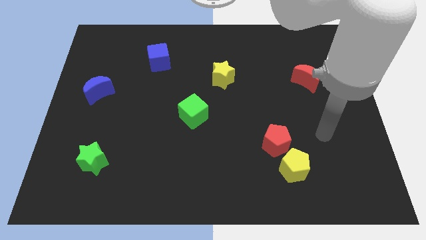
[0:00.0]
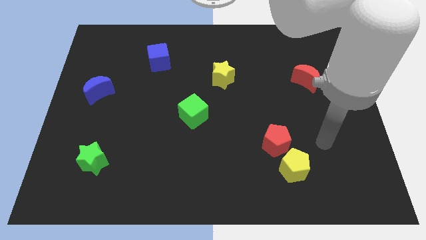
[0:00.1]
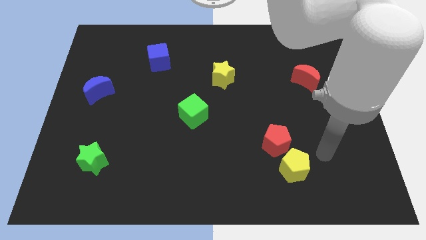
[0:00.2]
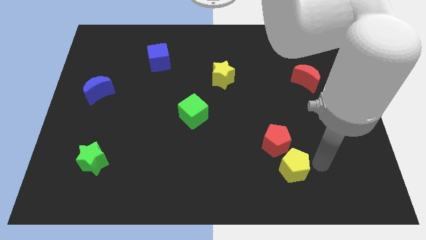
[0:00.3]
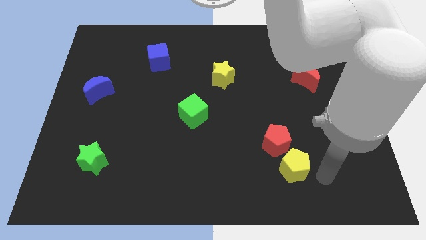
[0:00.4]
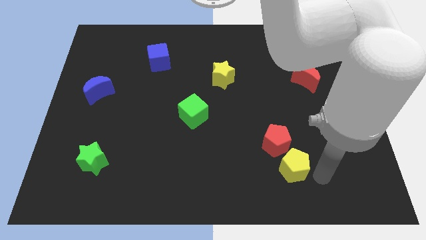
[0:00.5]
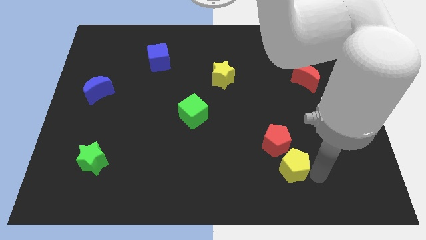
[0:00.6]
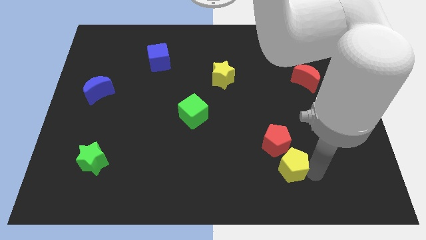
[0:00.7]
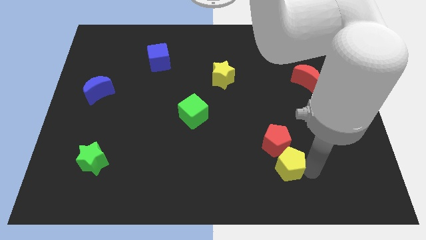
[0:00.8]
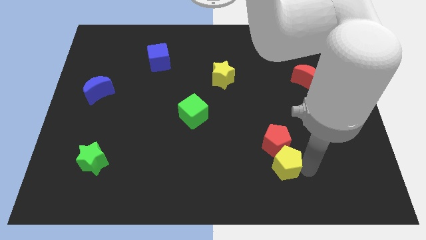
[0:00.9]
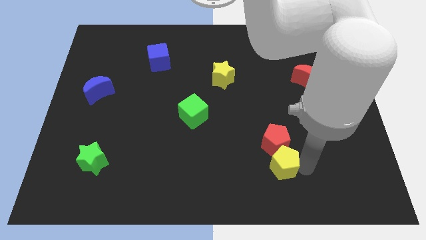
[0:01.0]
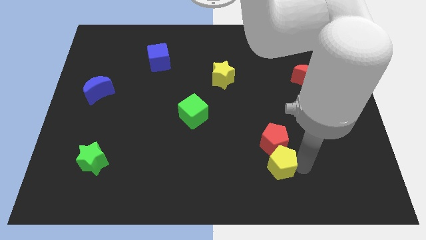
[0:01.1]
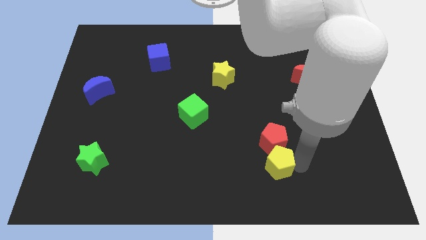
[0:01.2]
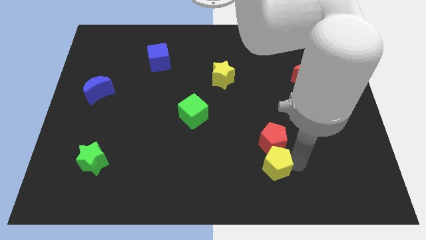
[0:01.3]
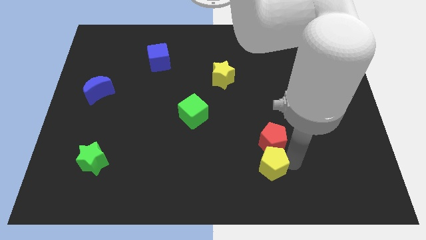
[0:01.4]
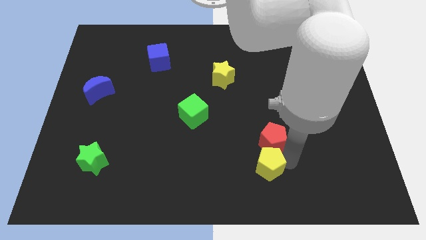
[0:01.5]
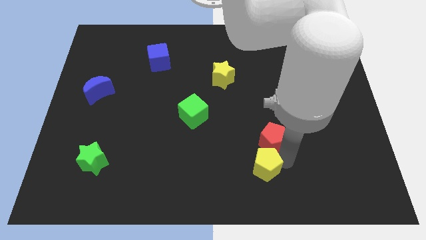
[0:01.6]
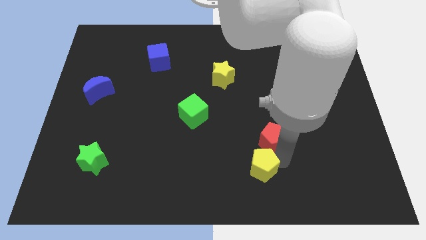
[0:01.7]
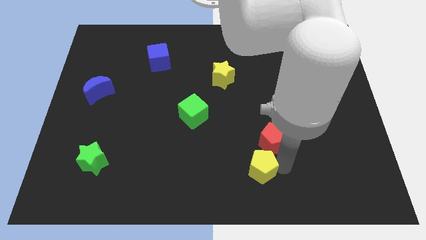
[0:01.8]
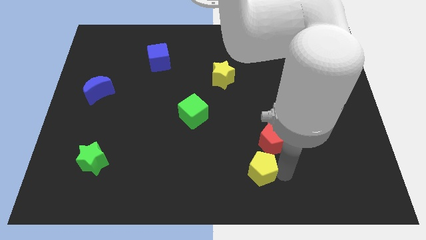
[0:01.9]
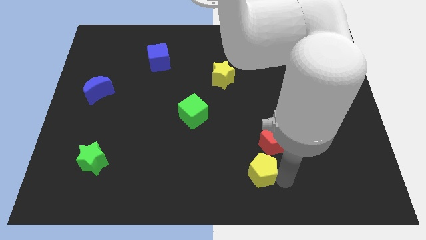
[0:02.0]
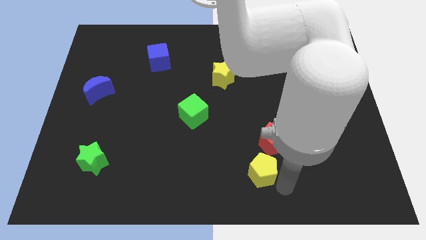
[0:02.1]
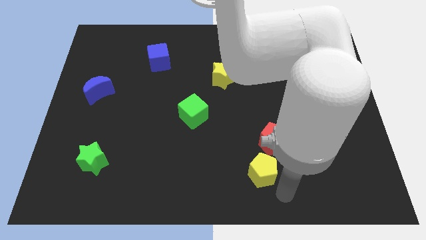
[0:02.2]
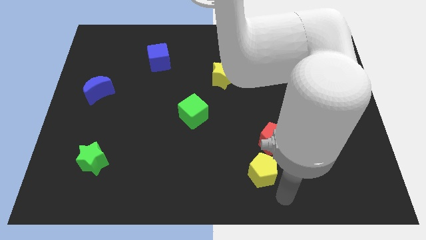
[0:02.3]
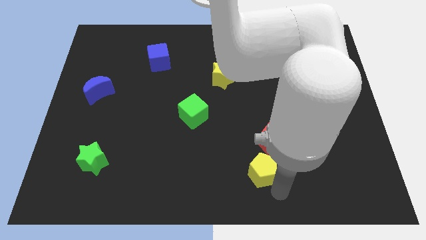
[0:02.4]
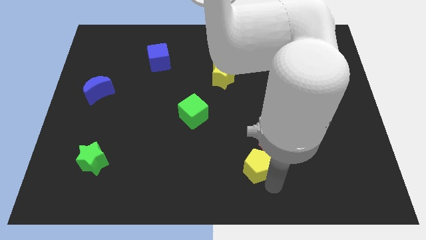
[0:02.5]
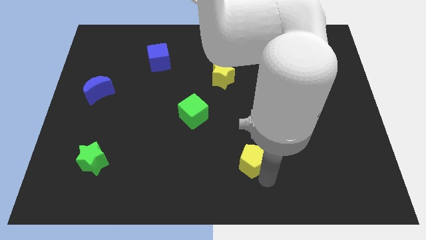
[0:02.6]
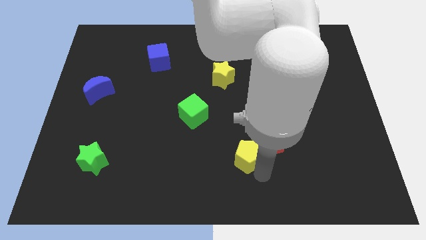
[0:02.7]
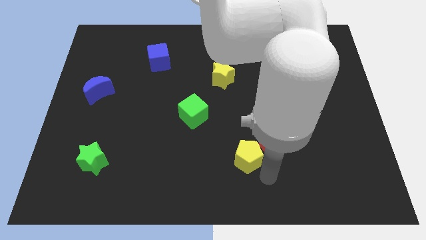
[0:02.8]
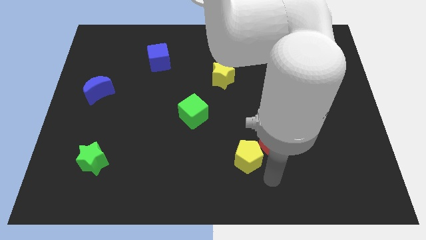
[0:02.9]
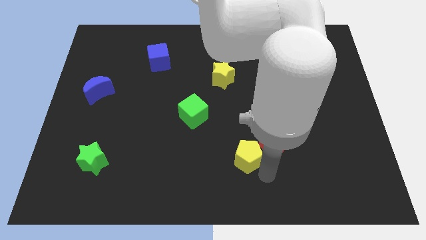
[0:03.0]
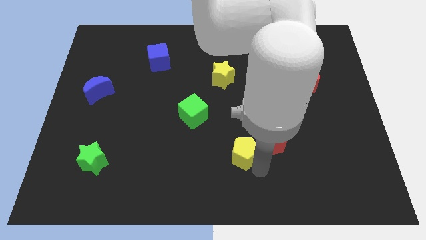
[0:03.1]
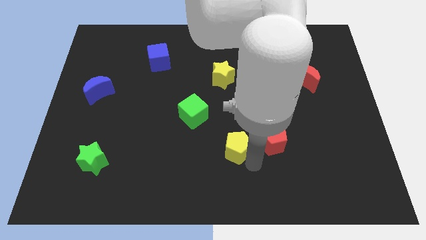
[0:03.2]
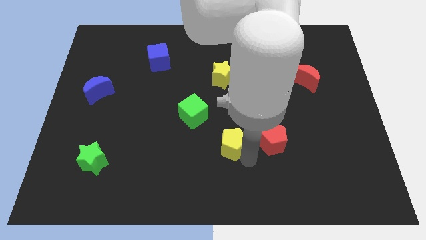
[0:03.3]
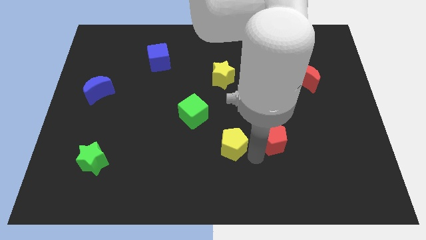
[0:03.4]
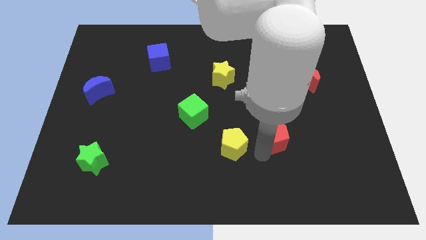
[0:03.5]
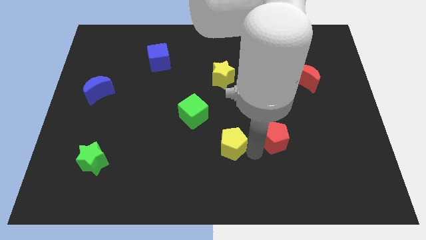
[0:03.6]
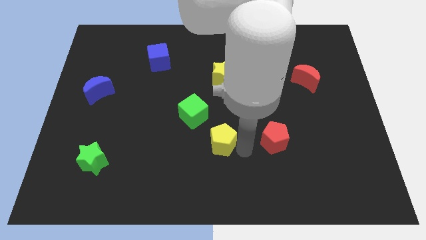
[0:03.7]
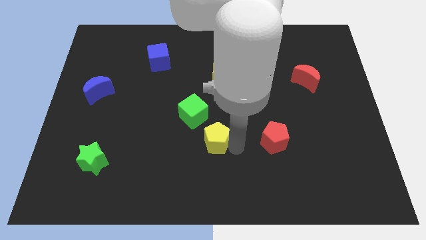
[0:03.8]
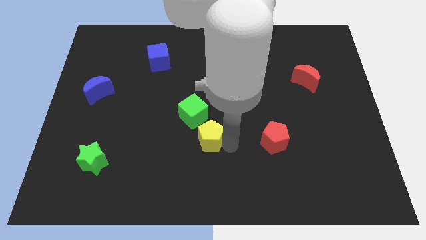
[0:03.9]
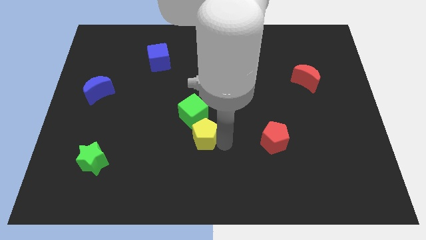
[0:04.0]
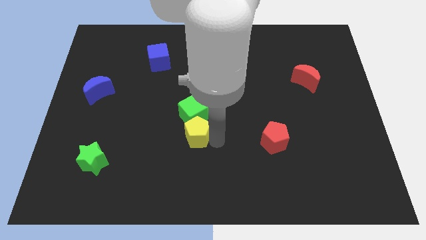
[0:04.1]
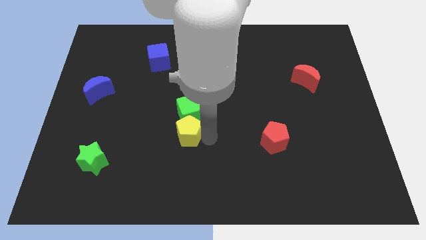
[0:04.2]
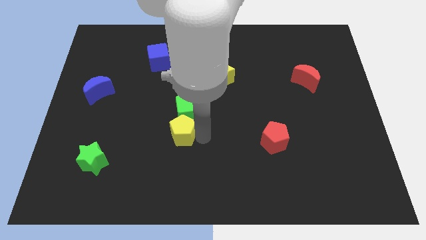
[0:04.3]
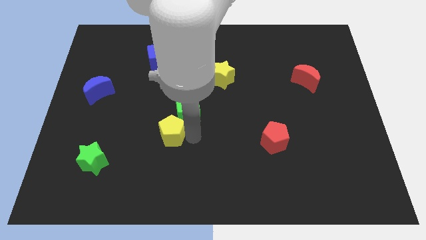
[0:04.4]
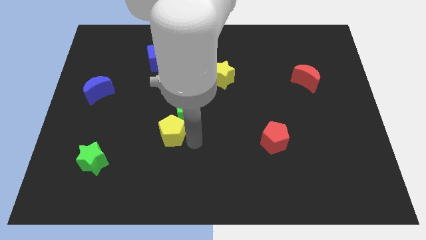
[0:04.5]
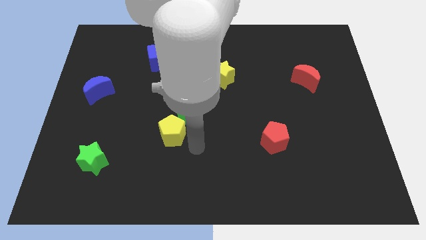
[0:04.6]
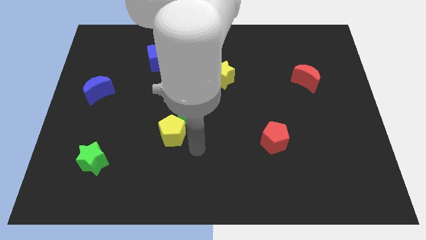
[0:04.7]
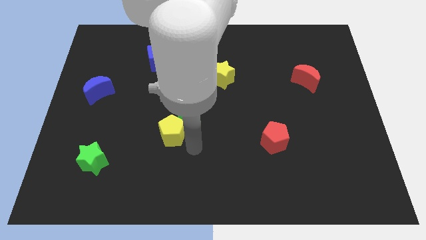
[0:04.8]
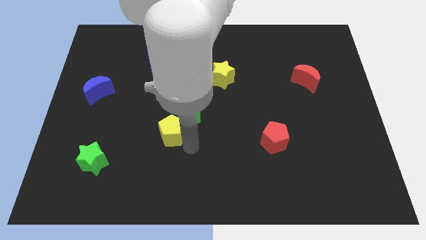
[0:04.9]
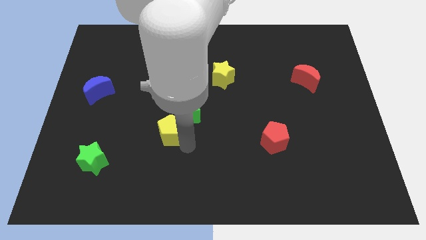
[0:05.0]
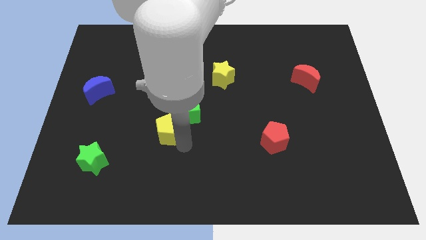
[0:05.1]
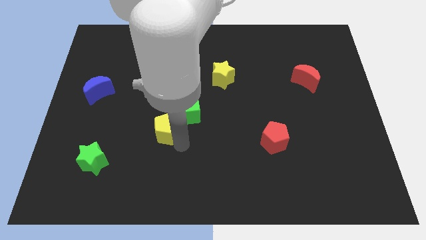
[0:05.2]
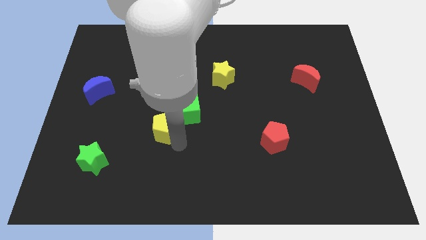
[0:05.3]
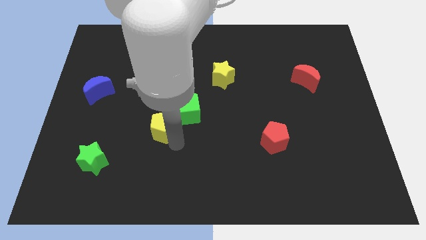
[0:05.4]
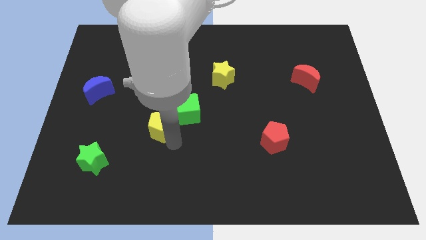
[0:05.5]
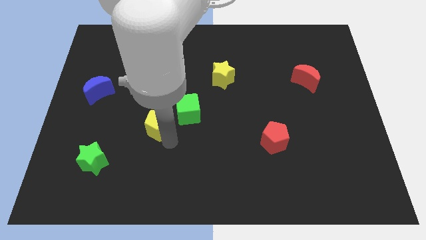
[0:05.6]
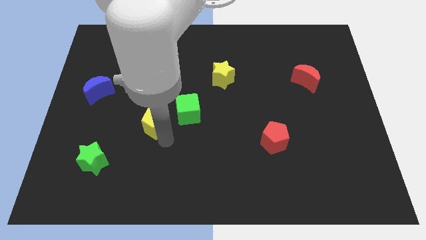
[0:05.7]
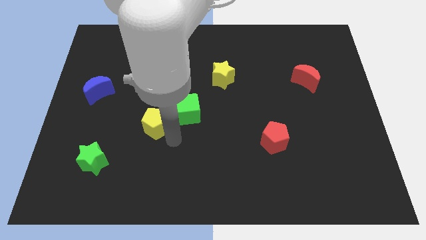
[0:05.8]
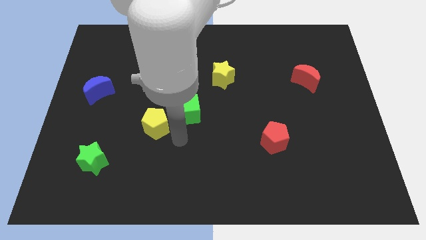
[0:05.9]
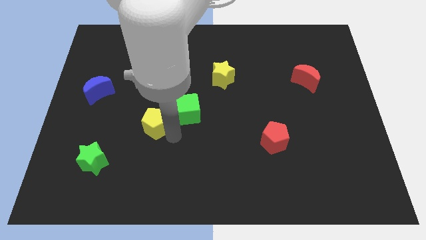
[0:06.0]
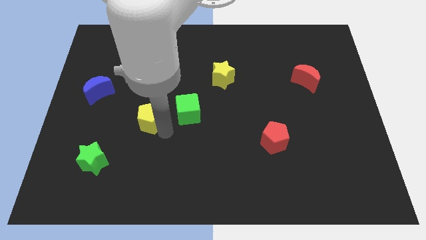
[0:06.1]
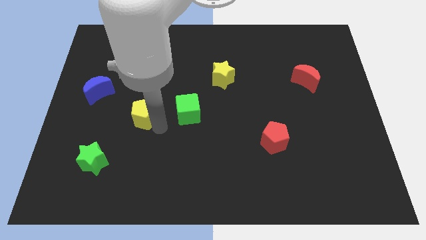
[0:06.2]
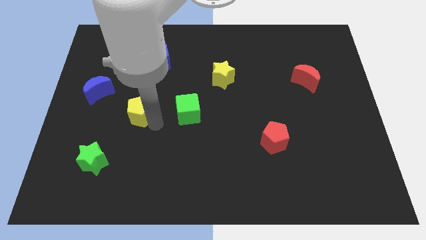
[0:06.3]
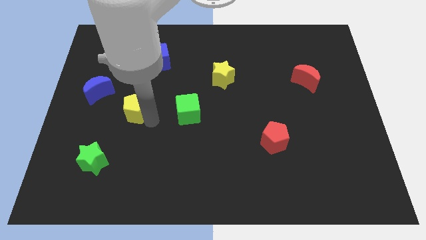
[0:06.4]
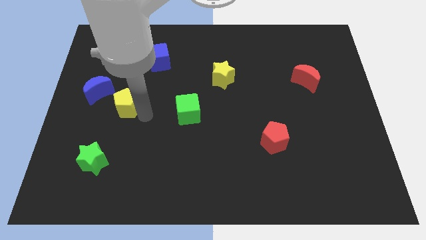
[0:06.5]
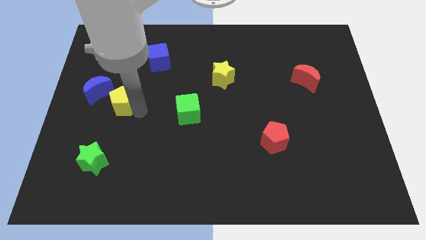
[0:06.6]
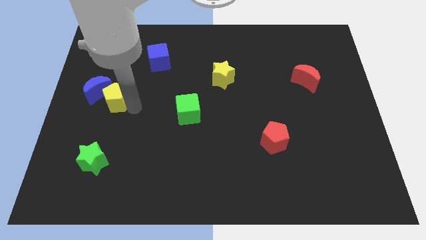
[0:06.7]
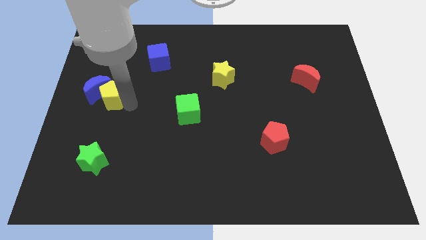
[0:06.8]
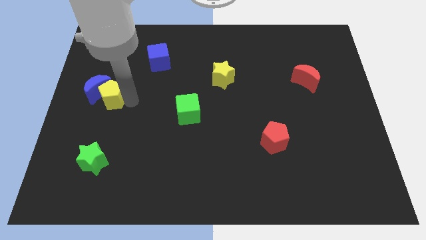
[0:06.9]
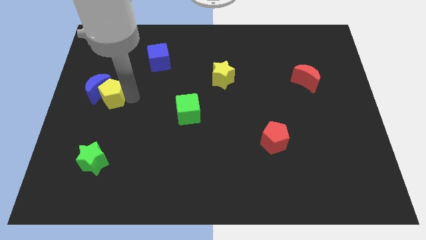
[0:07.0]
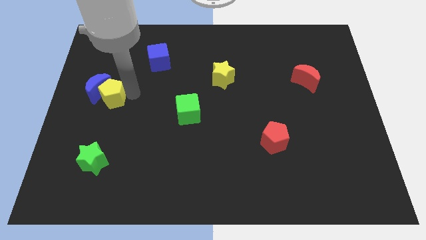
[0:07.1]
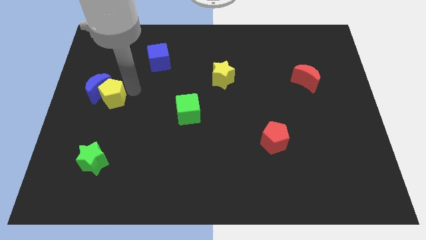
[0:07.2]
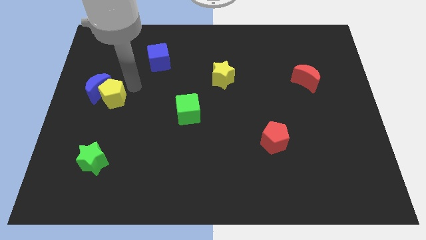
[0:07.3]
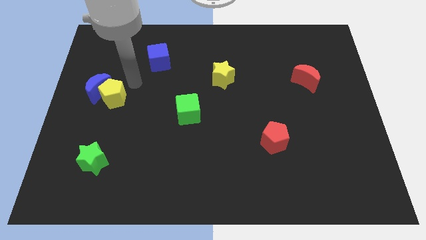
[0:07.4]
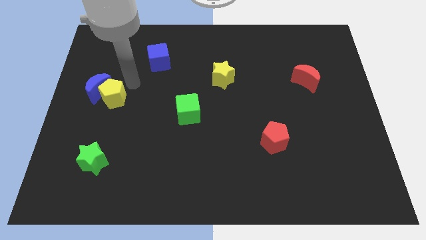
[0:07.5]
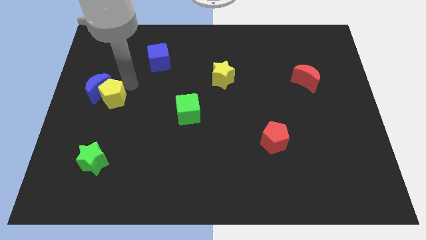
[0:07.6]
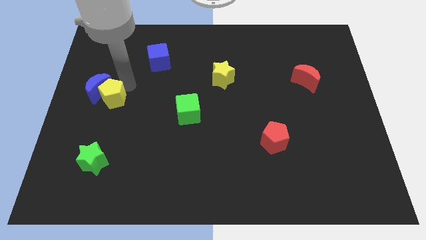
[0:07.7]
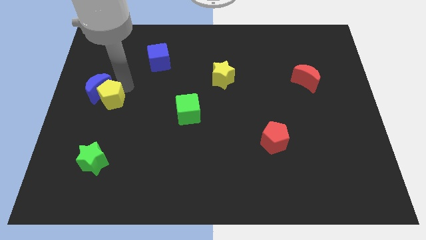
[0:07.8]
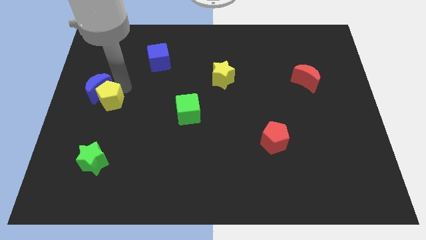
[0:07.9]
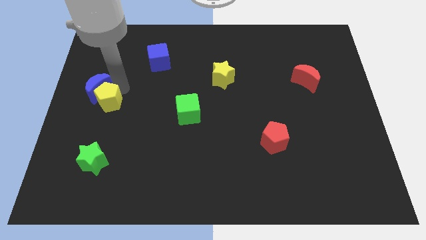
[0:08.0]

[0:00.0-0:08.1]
move the yellow pentagon to the left side
